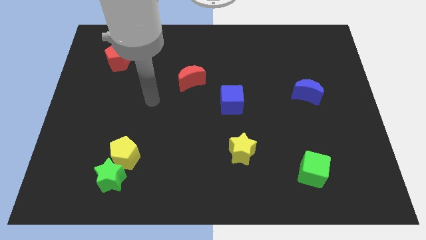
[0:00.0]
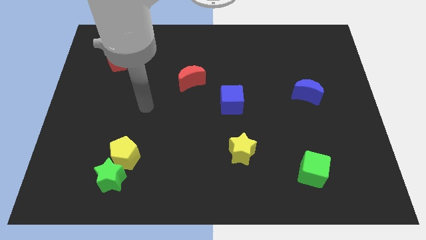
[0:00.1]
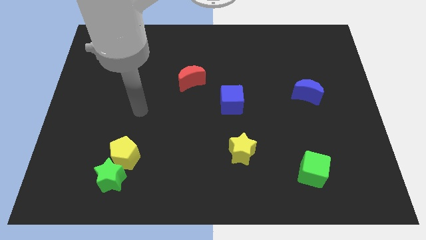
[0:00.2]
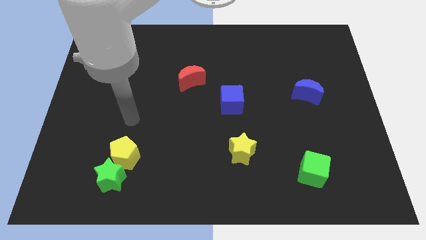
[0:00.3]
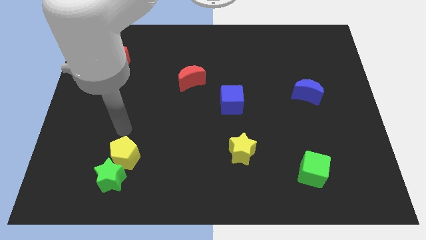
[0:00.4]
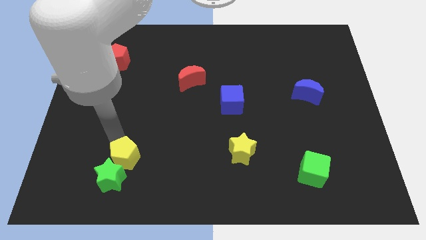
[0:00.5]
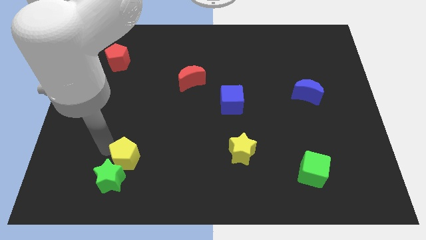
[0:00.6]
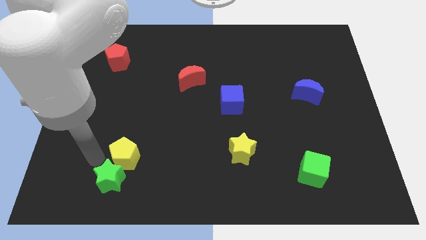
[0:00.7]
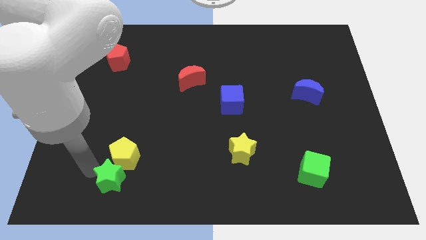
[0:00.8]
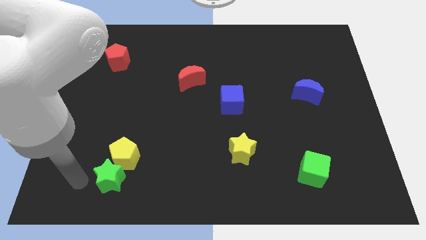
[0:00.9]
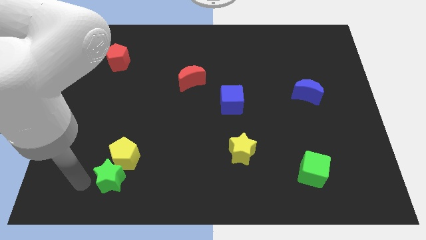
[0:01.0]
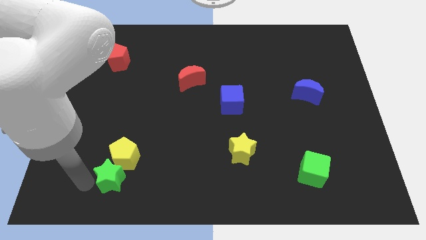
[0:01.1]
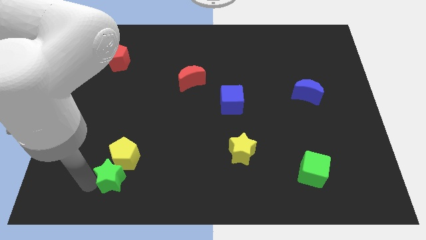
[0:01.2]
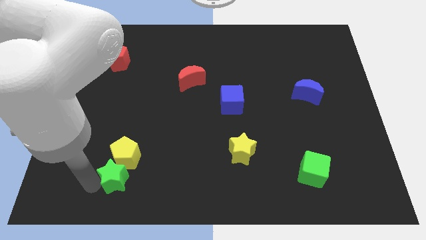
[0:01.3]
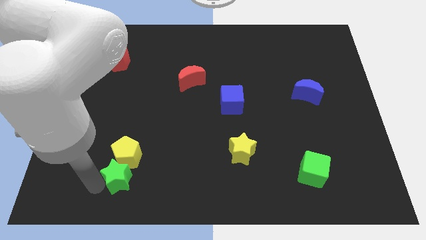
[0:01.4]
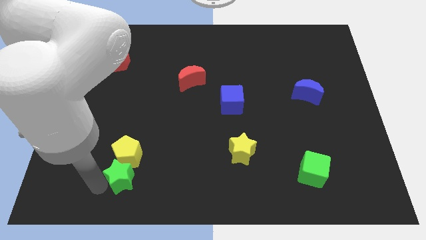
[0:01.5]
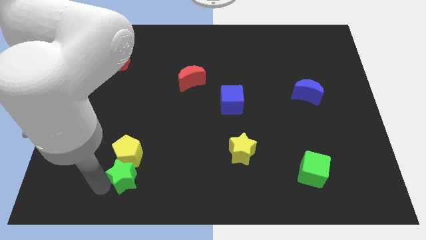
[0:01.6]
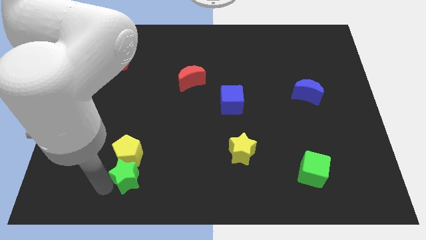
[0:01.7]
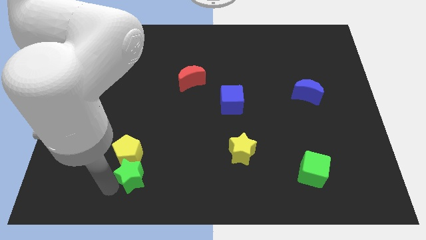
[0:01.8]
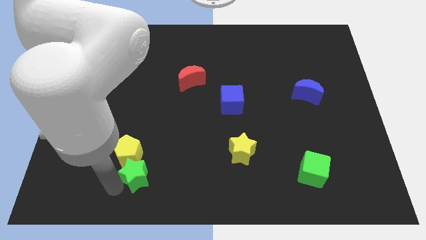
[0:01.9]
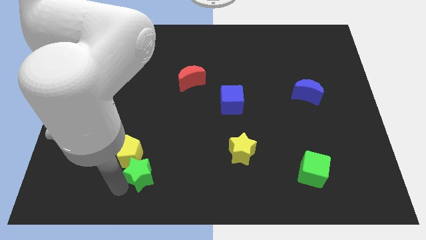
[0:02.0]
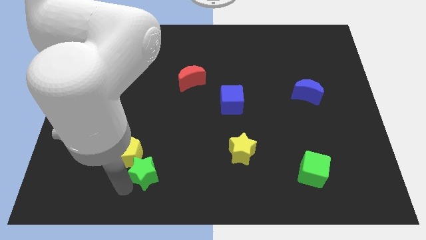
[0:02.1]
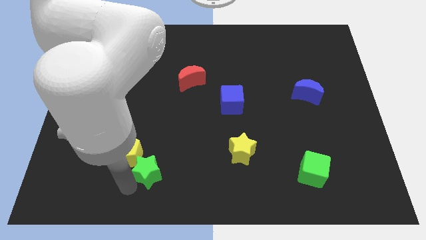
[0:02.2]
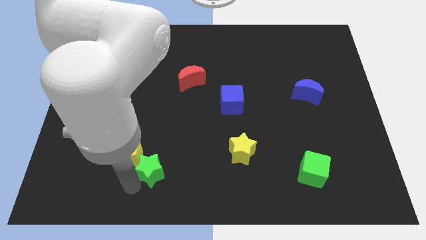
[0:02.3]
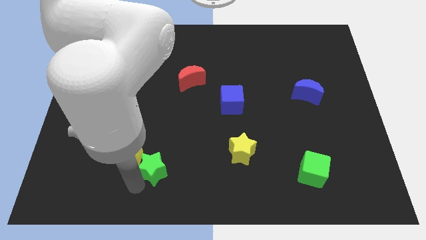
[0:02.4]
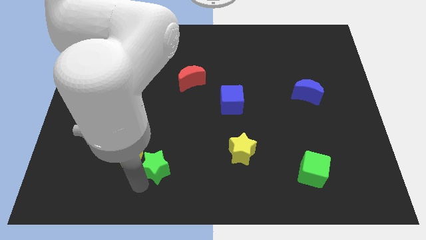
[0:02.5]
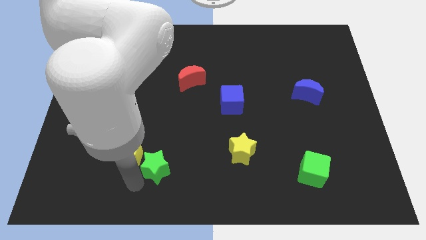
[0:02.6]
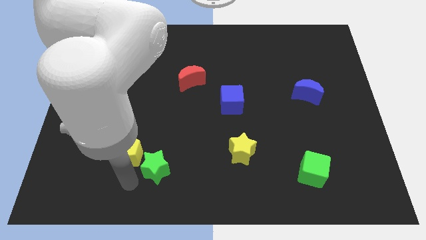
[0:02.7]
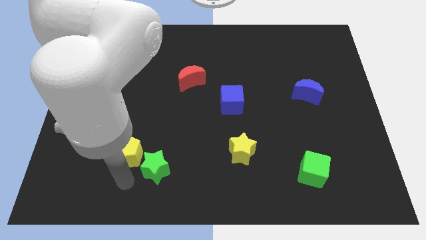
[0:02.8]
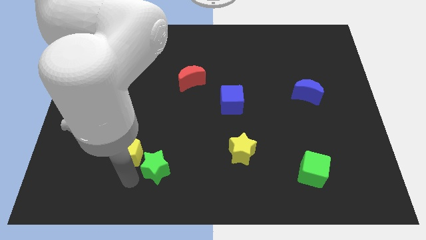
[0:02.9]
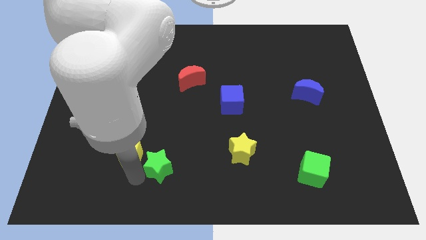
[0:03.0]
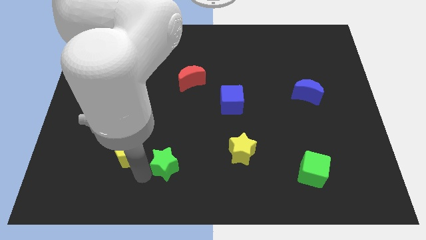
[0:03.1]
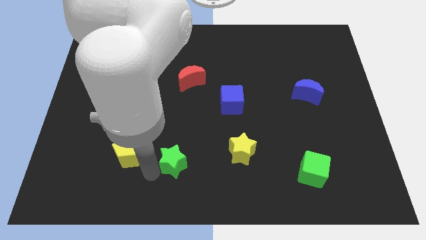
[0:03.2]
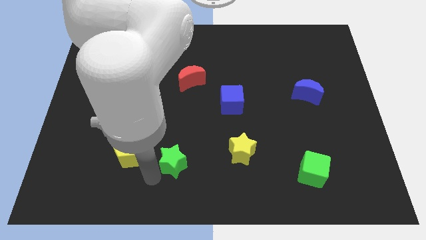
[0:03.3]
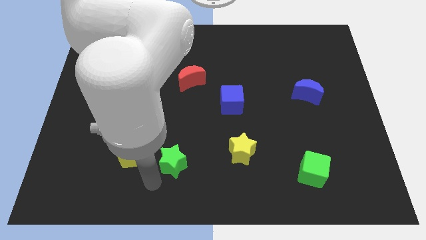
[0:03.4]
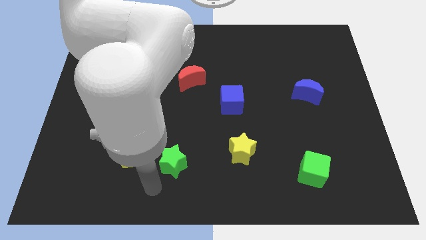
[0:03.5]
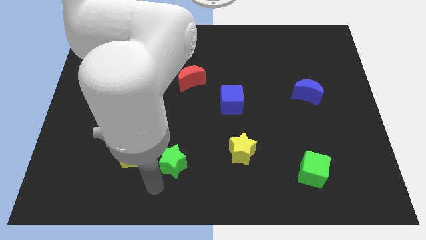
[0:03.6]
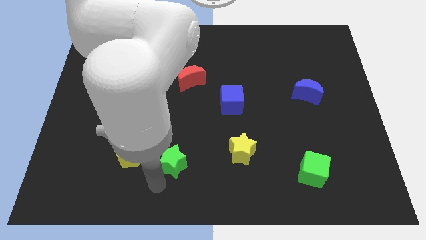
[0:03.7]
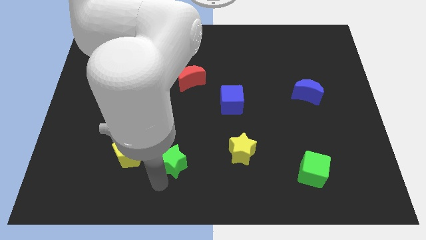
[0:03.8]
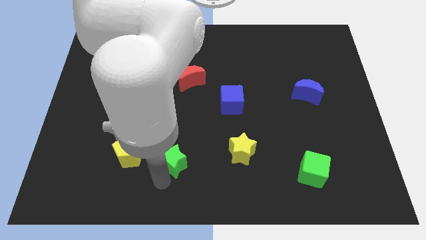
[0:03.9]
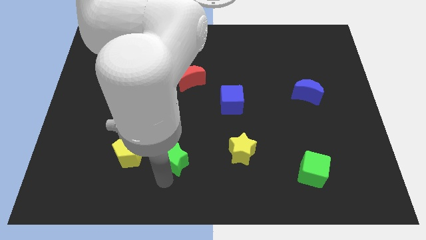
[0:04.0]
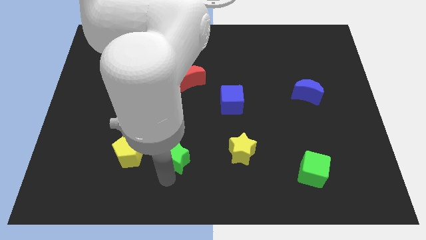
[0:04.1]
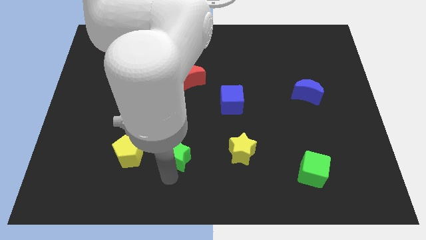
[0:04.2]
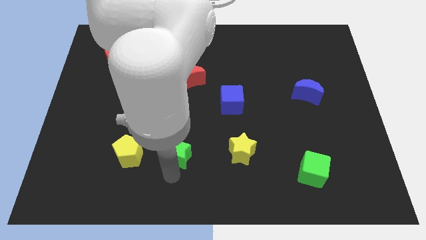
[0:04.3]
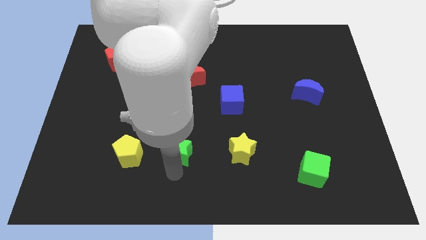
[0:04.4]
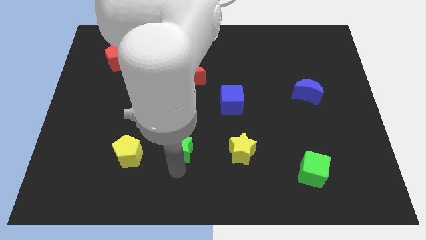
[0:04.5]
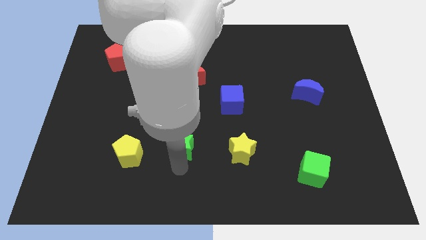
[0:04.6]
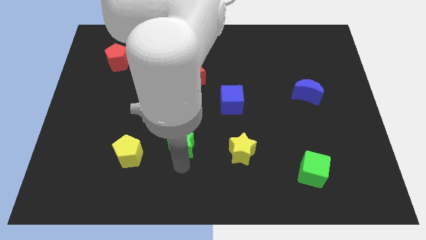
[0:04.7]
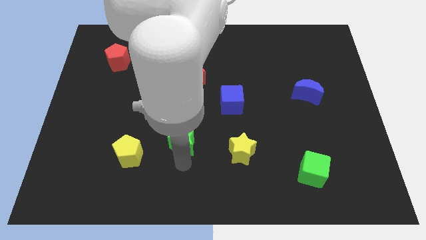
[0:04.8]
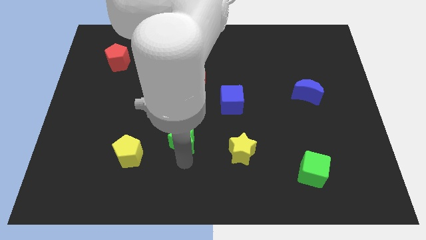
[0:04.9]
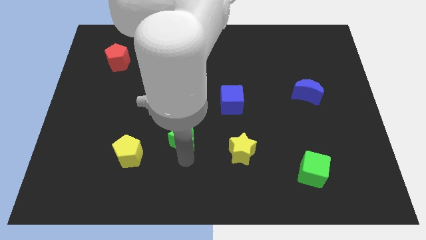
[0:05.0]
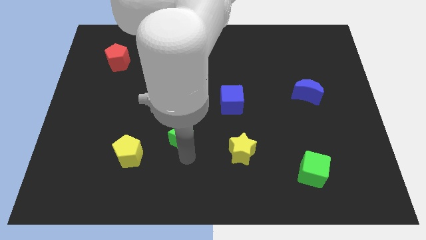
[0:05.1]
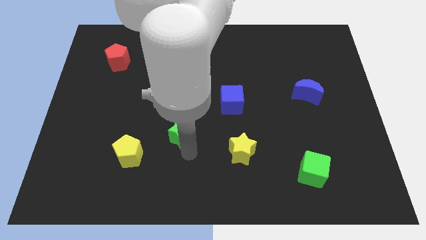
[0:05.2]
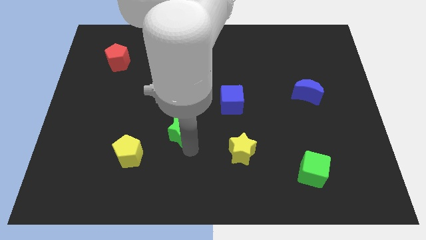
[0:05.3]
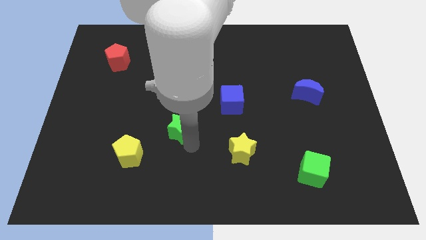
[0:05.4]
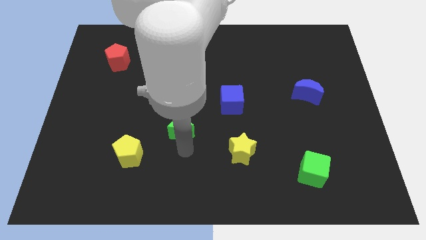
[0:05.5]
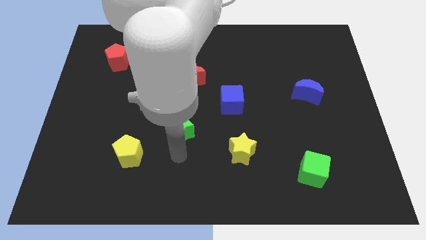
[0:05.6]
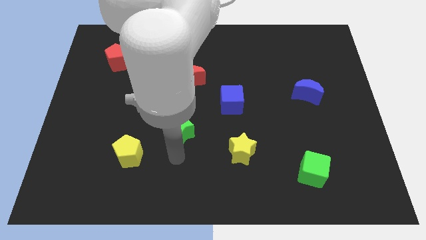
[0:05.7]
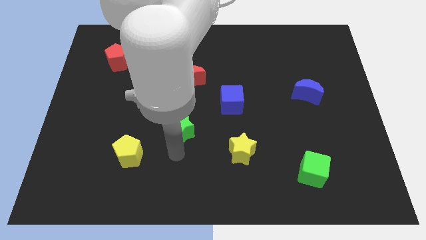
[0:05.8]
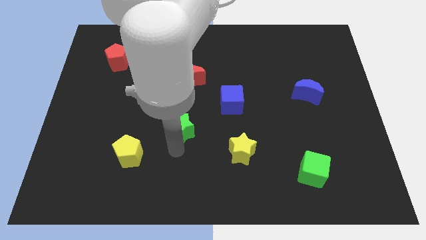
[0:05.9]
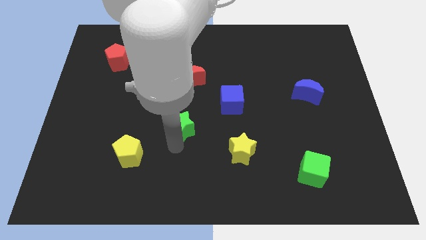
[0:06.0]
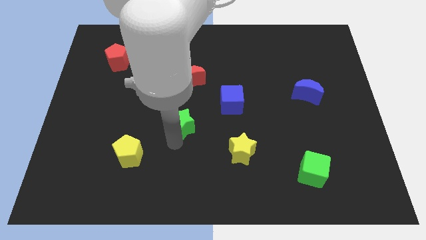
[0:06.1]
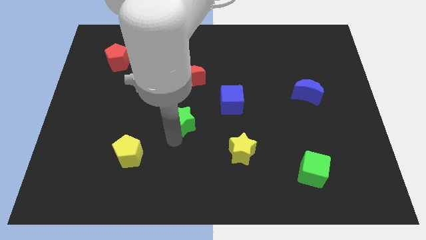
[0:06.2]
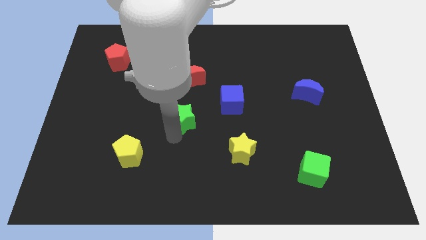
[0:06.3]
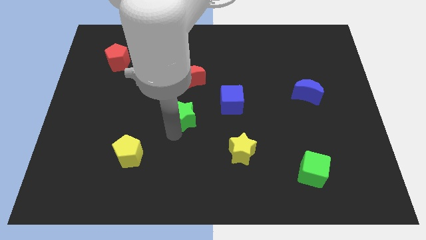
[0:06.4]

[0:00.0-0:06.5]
slide the green star to the left of the blue cube
